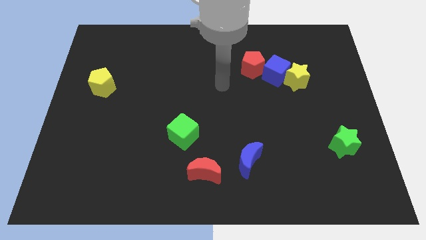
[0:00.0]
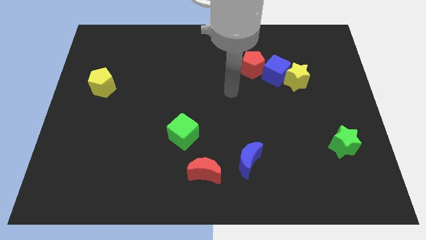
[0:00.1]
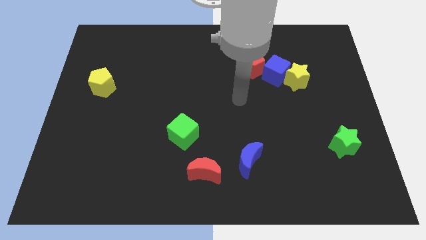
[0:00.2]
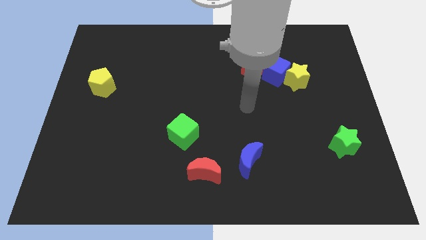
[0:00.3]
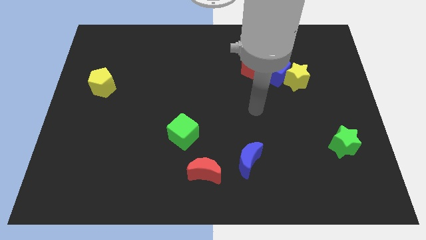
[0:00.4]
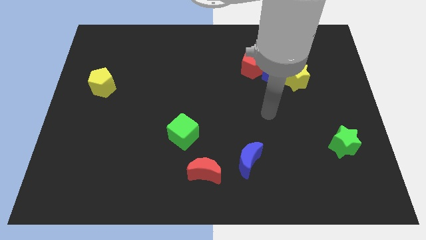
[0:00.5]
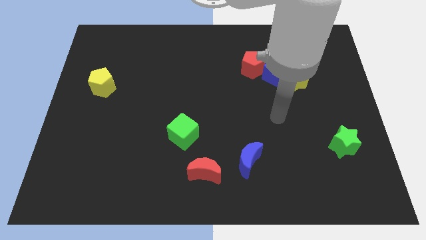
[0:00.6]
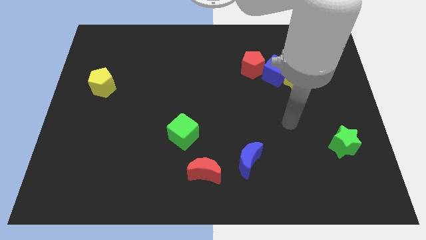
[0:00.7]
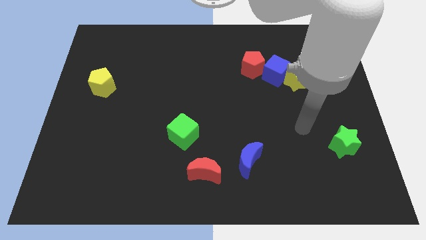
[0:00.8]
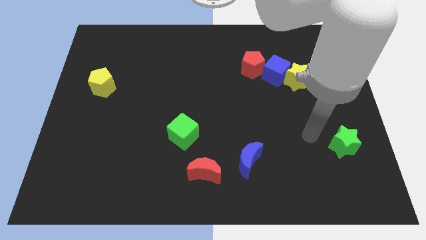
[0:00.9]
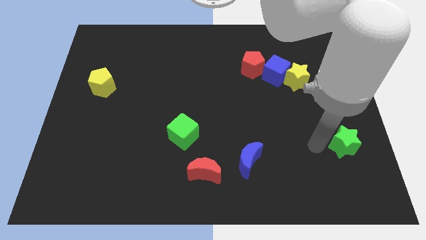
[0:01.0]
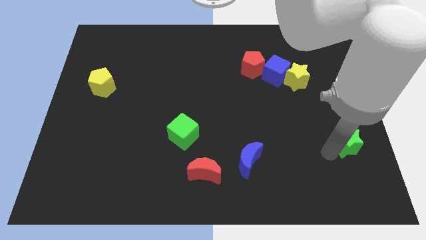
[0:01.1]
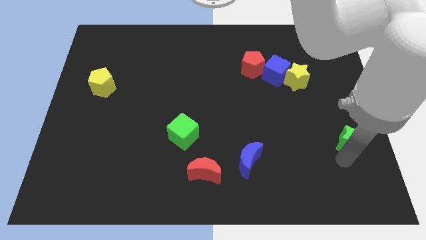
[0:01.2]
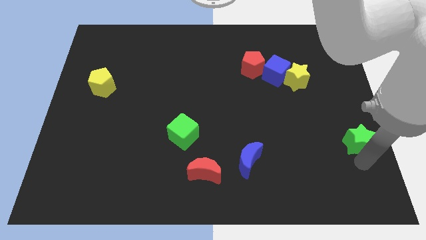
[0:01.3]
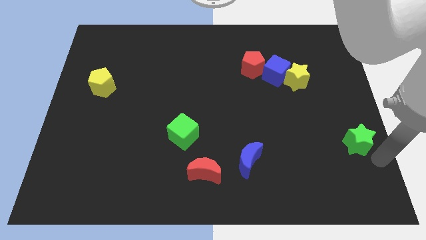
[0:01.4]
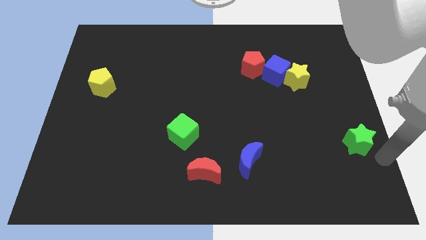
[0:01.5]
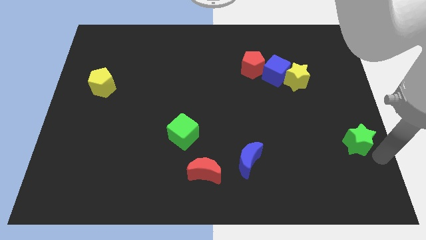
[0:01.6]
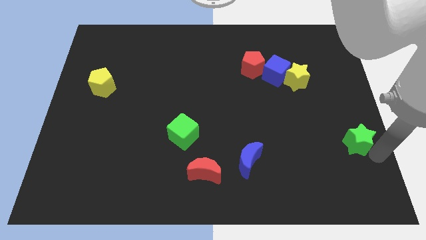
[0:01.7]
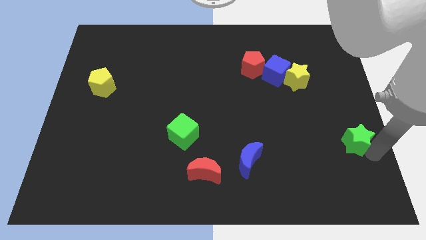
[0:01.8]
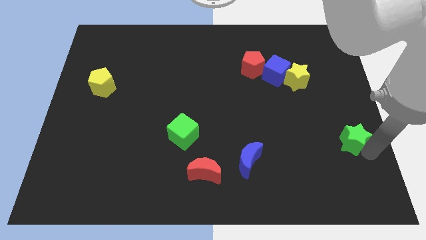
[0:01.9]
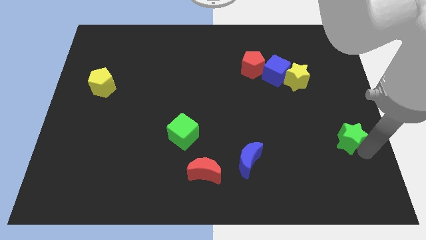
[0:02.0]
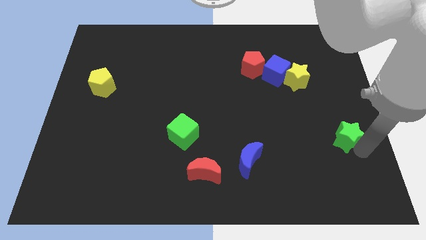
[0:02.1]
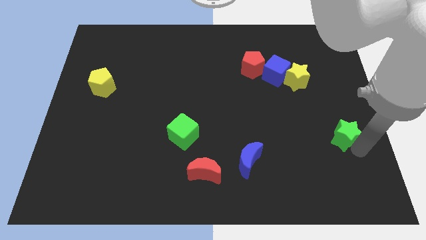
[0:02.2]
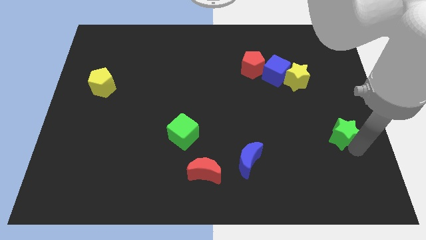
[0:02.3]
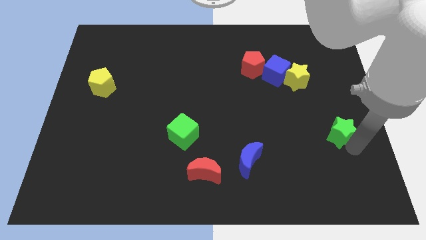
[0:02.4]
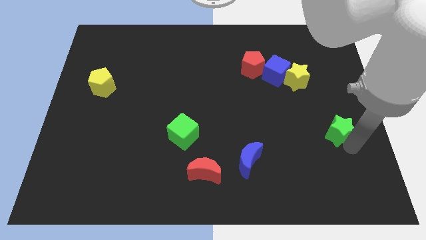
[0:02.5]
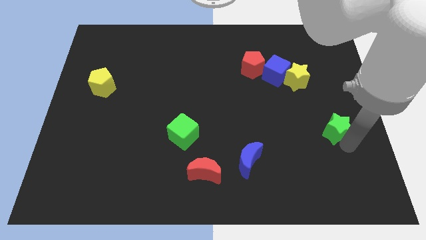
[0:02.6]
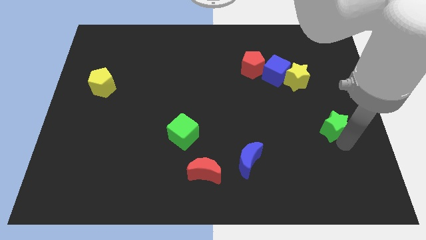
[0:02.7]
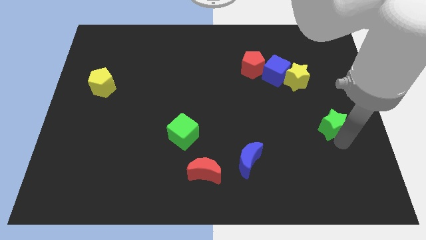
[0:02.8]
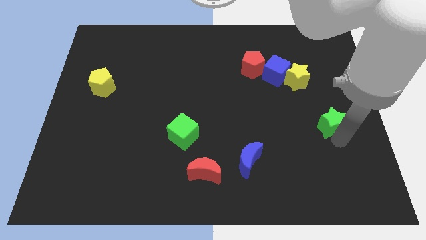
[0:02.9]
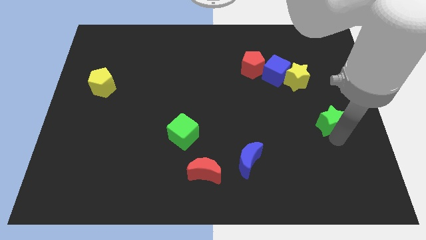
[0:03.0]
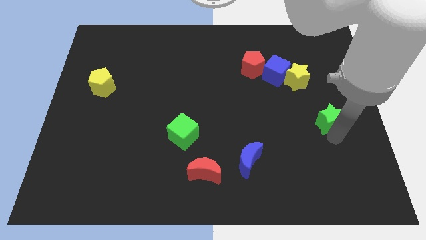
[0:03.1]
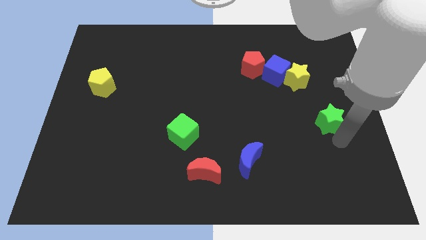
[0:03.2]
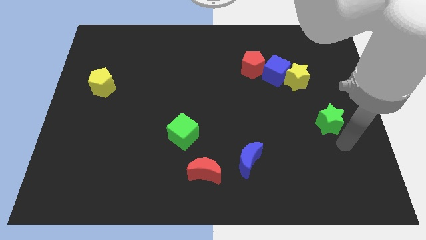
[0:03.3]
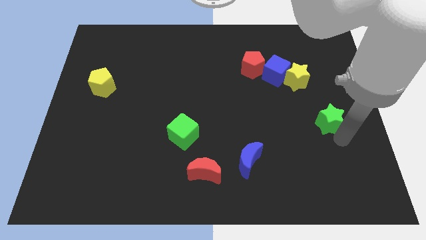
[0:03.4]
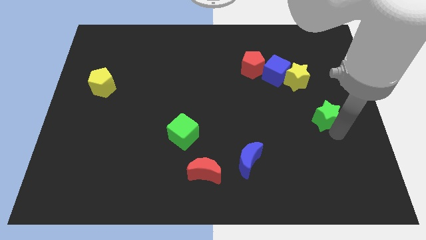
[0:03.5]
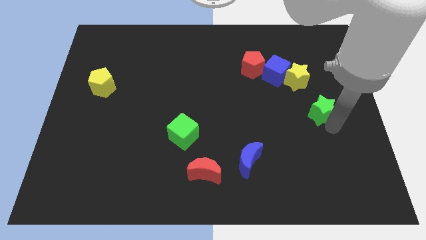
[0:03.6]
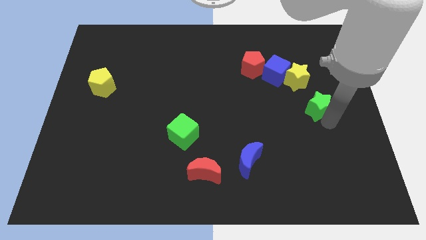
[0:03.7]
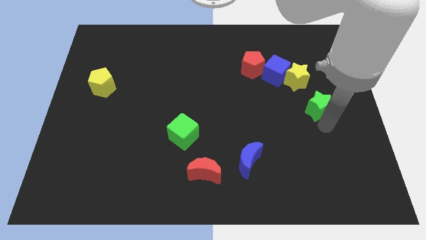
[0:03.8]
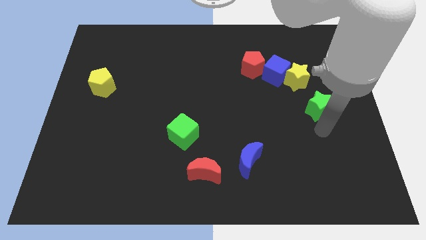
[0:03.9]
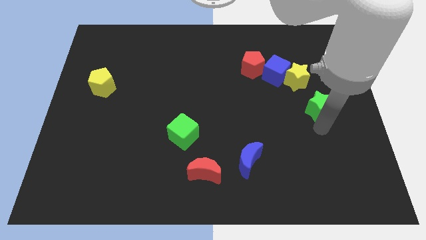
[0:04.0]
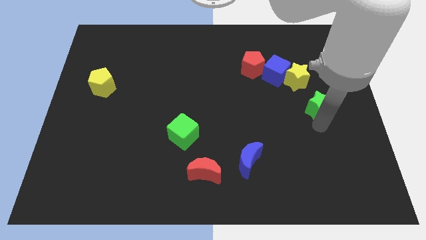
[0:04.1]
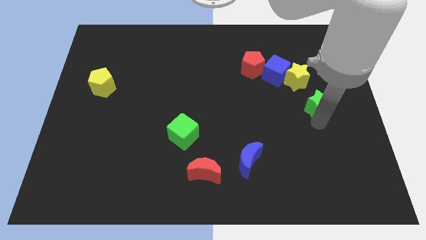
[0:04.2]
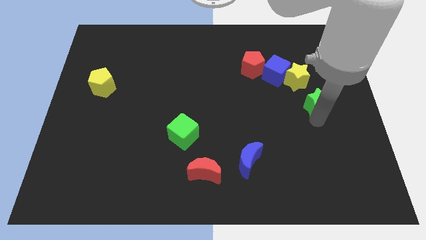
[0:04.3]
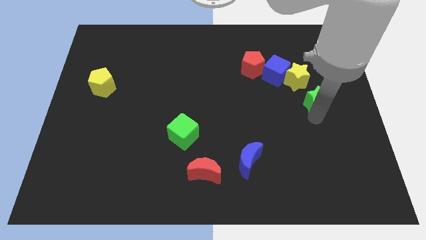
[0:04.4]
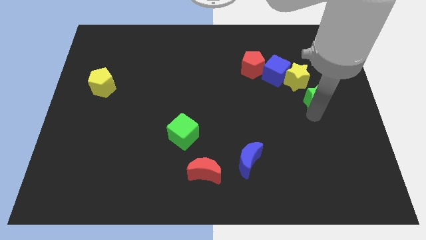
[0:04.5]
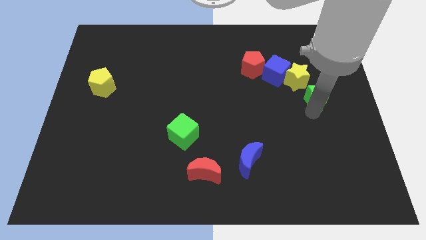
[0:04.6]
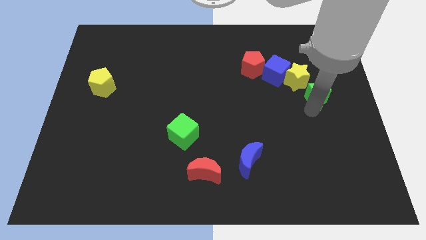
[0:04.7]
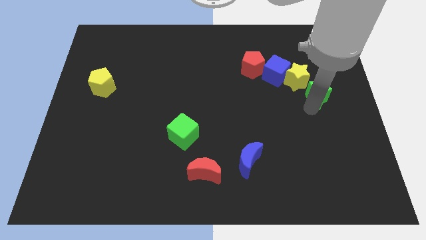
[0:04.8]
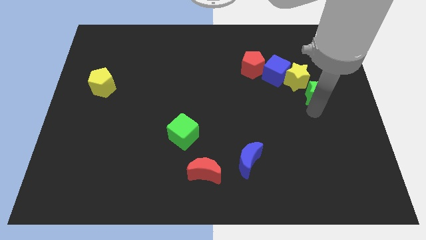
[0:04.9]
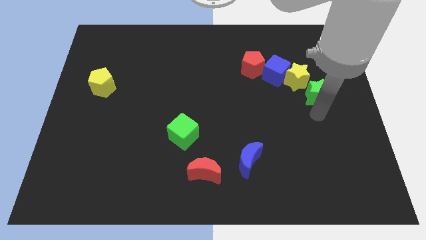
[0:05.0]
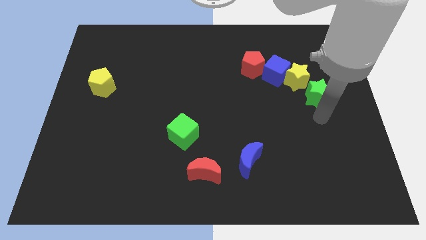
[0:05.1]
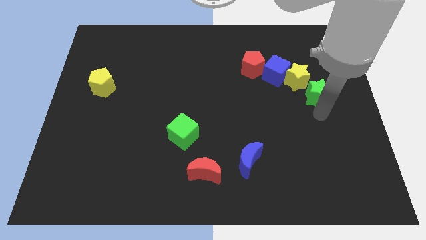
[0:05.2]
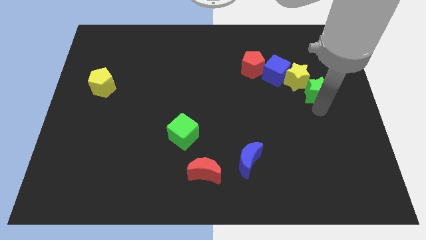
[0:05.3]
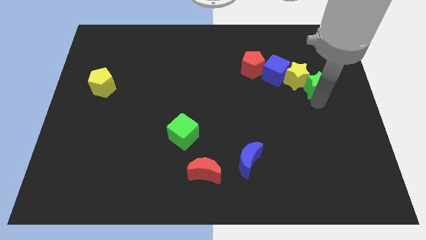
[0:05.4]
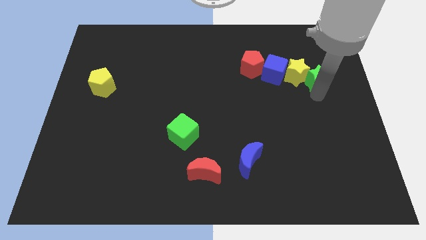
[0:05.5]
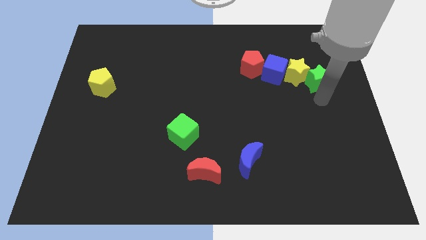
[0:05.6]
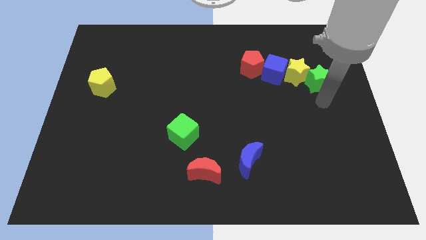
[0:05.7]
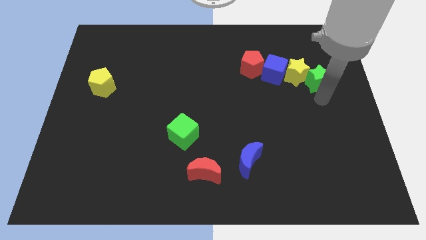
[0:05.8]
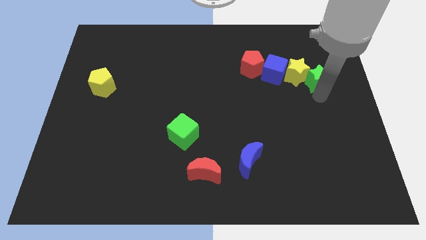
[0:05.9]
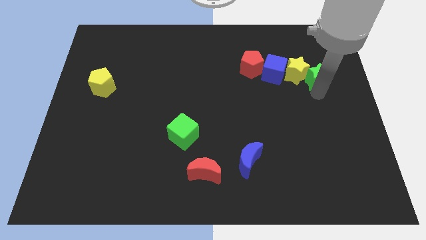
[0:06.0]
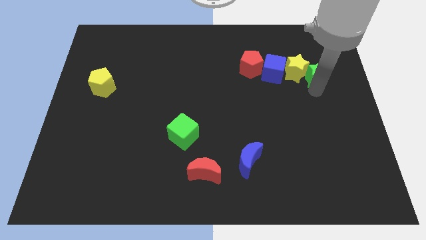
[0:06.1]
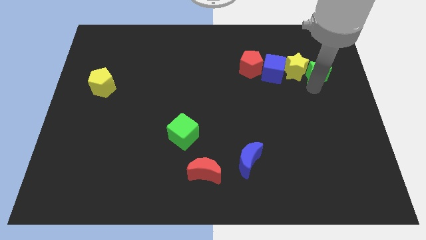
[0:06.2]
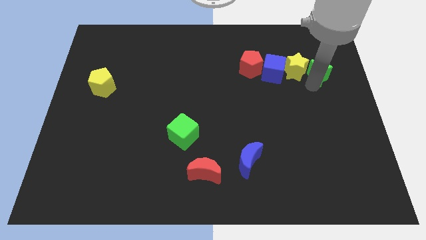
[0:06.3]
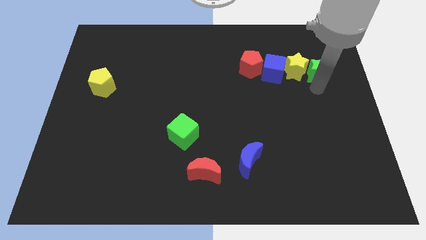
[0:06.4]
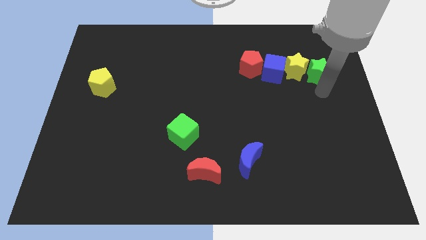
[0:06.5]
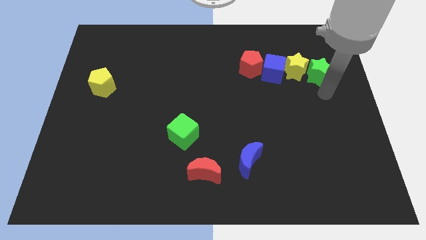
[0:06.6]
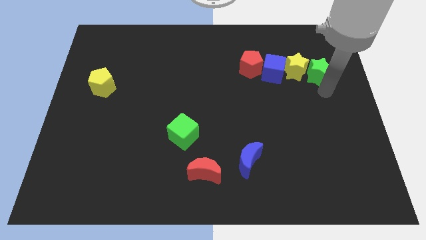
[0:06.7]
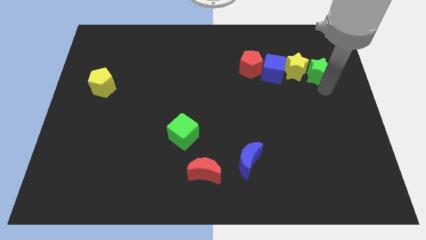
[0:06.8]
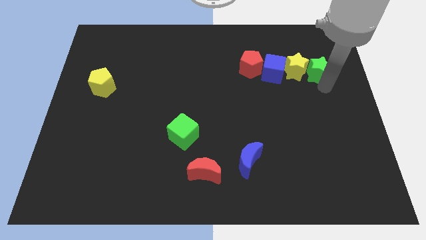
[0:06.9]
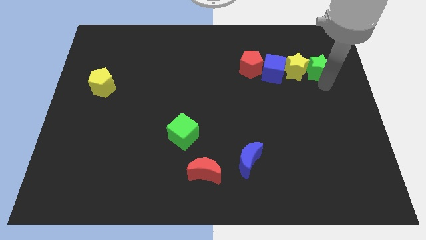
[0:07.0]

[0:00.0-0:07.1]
push the green star to the top right side of the yellow star

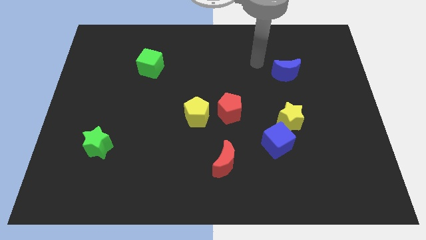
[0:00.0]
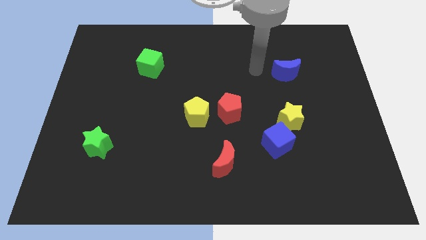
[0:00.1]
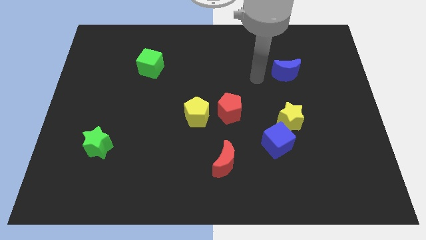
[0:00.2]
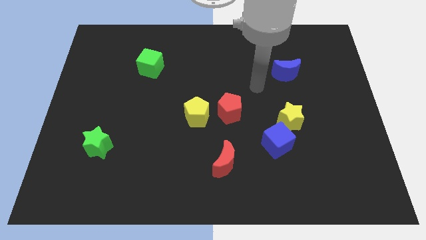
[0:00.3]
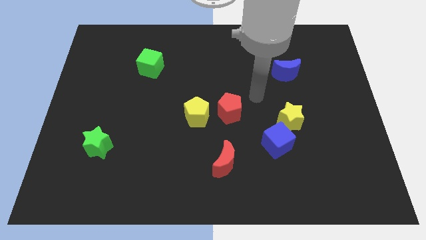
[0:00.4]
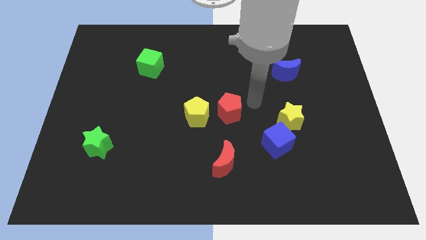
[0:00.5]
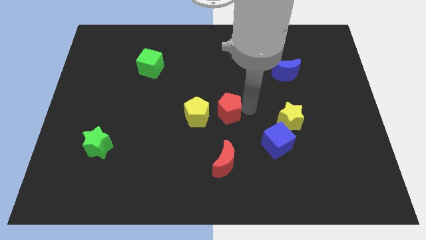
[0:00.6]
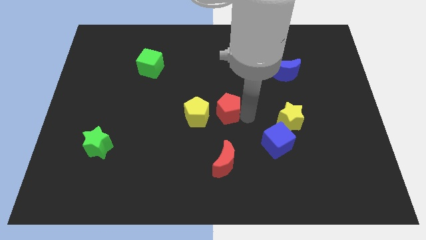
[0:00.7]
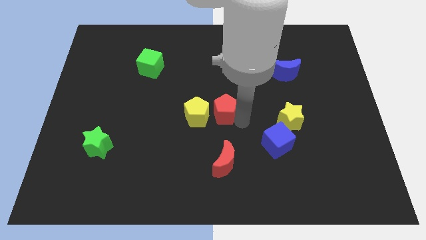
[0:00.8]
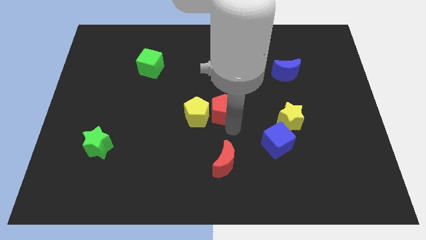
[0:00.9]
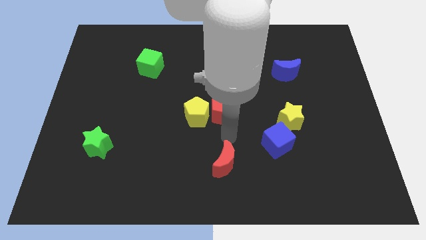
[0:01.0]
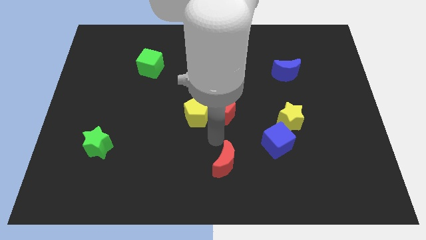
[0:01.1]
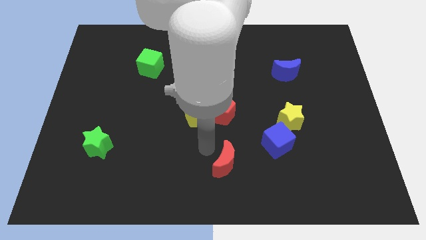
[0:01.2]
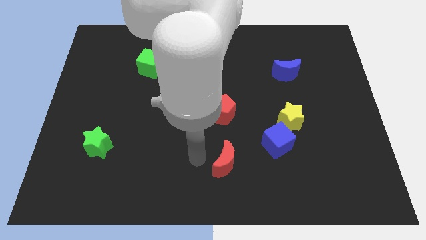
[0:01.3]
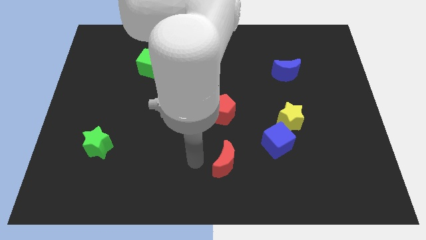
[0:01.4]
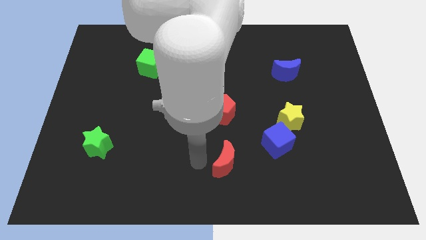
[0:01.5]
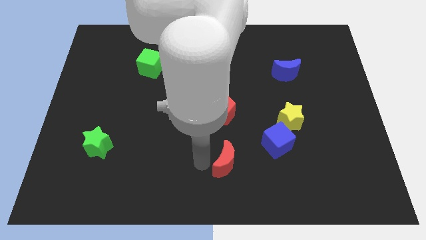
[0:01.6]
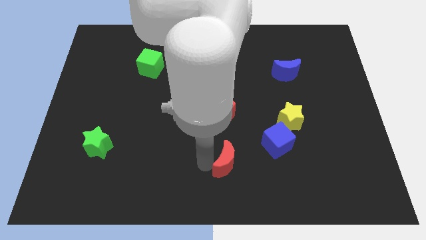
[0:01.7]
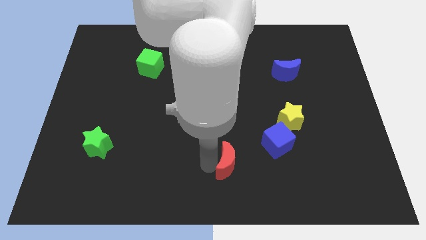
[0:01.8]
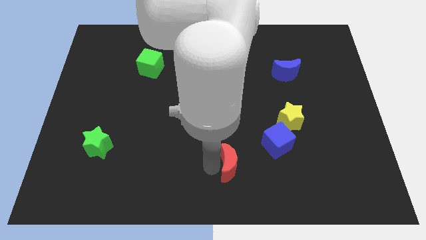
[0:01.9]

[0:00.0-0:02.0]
put the red moon diagonally down and to the left of the blue cube
